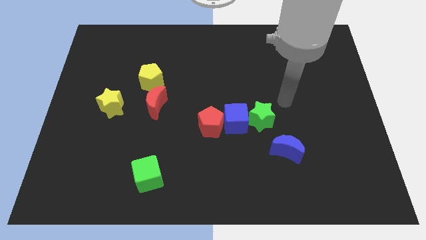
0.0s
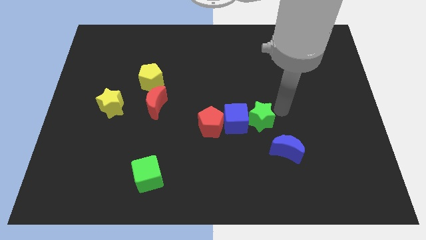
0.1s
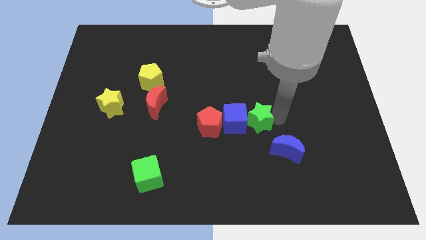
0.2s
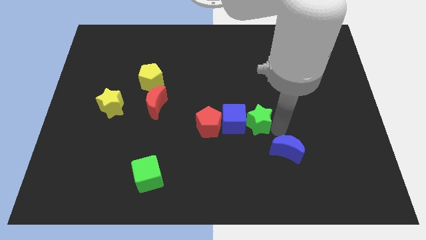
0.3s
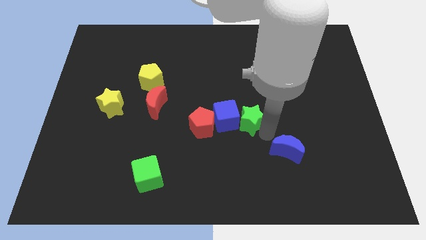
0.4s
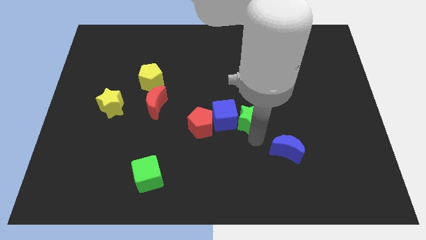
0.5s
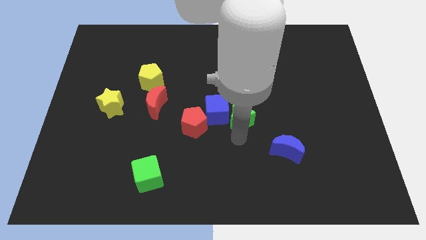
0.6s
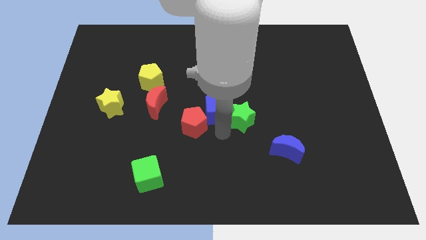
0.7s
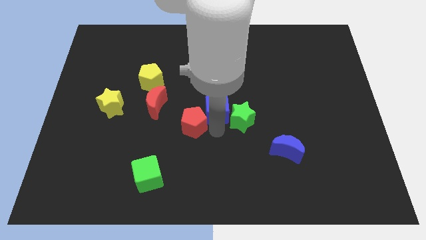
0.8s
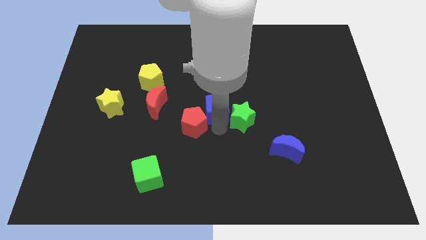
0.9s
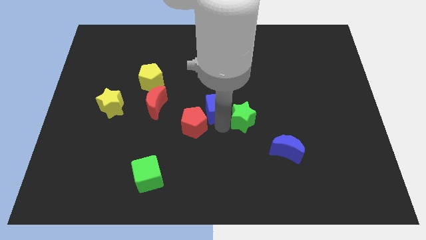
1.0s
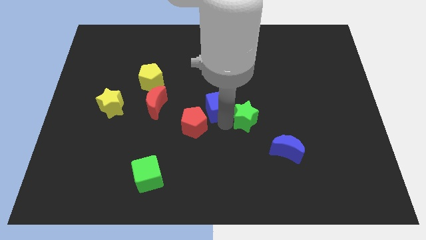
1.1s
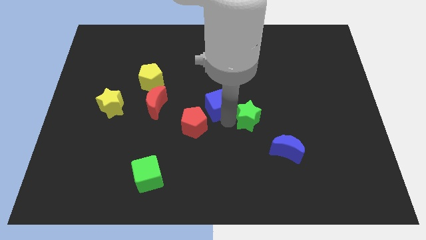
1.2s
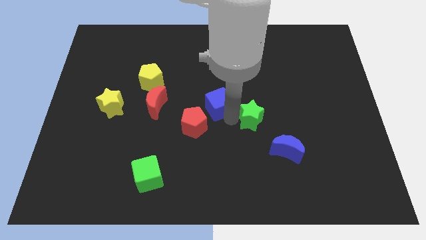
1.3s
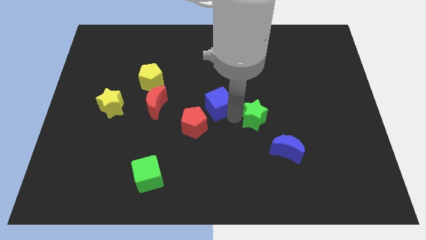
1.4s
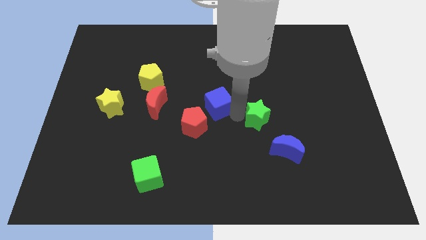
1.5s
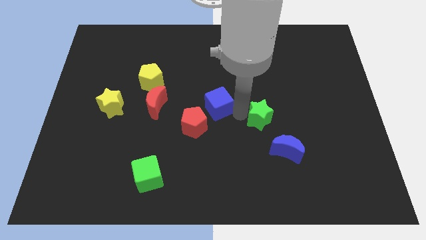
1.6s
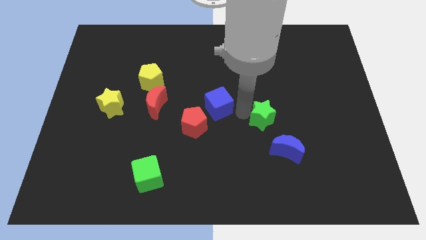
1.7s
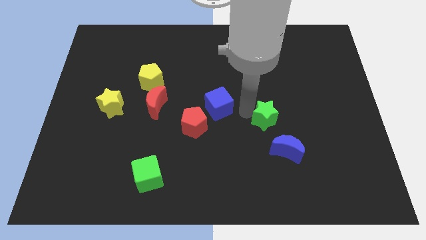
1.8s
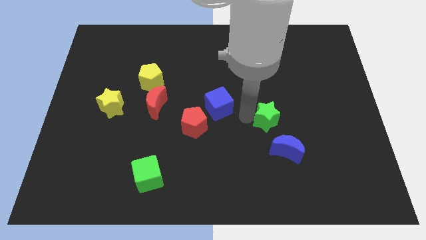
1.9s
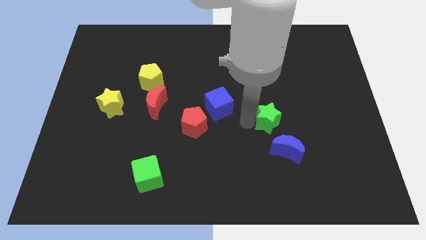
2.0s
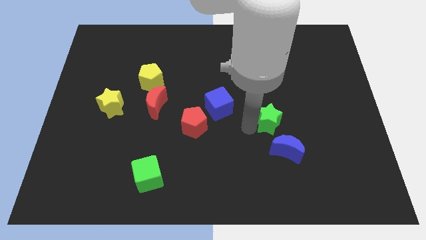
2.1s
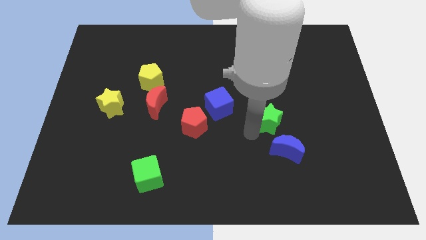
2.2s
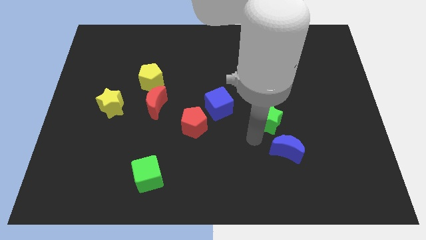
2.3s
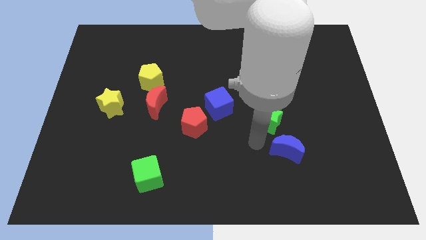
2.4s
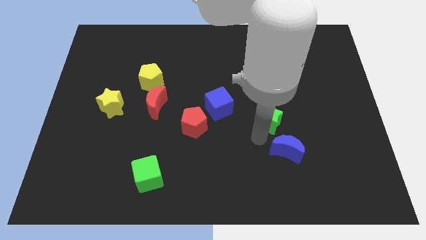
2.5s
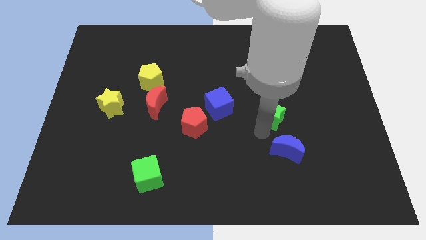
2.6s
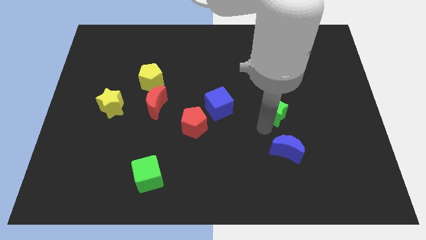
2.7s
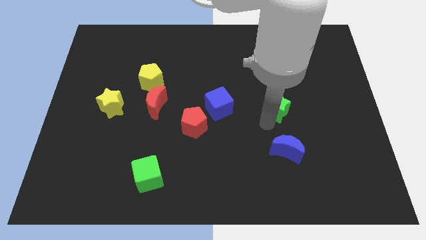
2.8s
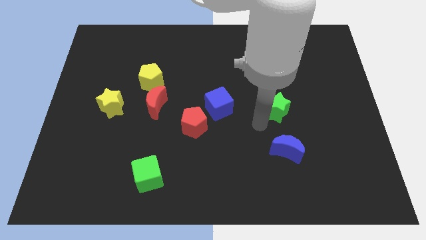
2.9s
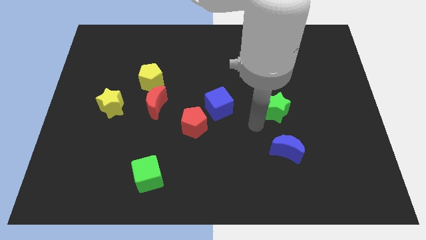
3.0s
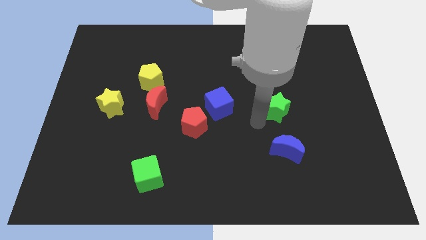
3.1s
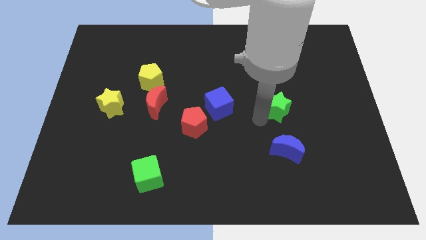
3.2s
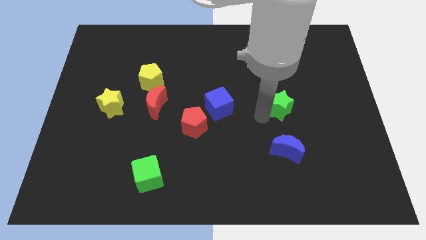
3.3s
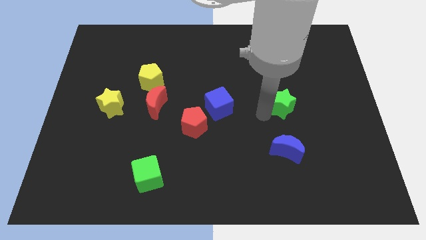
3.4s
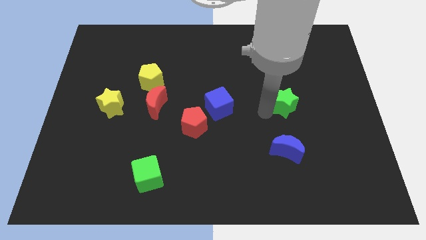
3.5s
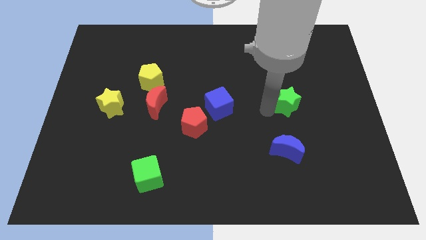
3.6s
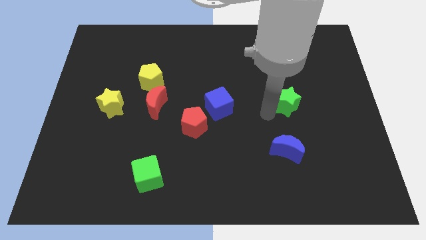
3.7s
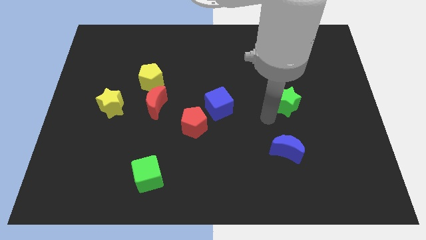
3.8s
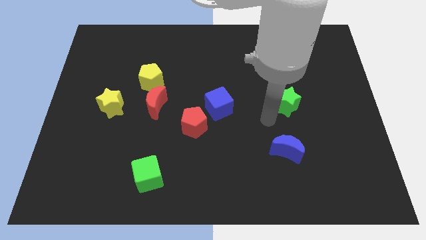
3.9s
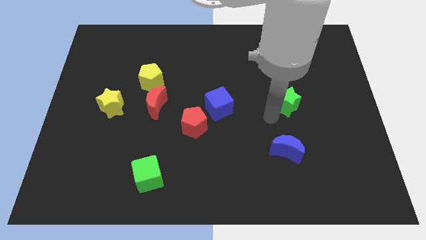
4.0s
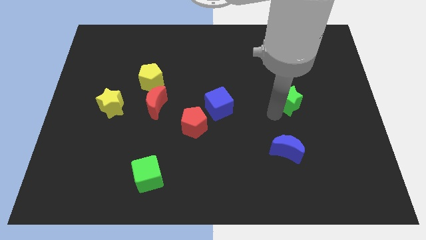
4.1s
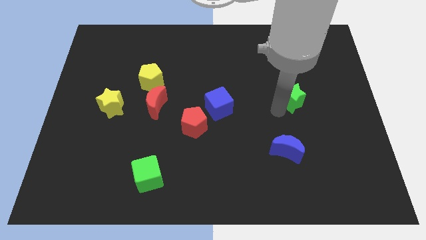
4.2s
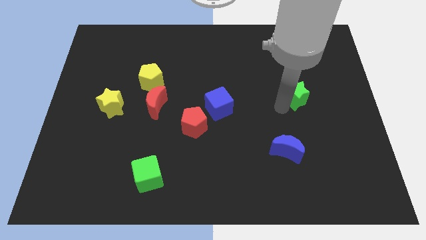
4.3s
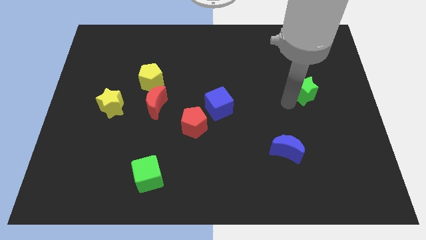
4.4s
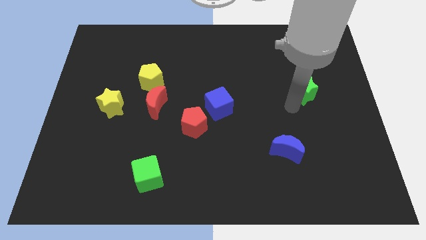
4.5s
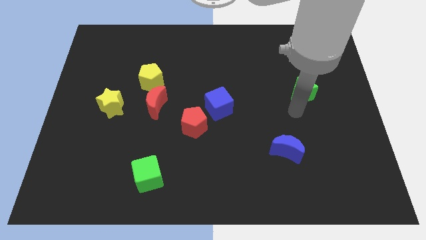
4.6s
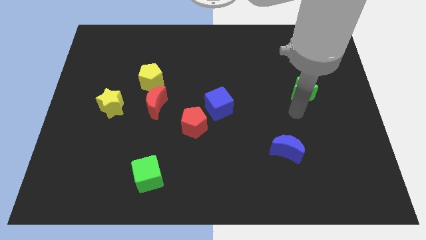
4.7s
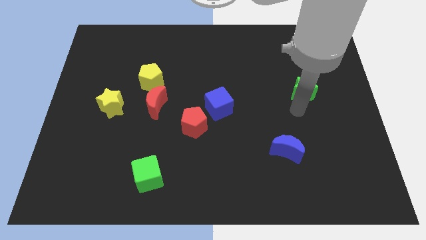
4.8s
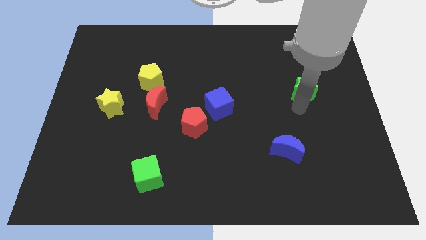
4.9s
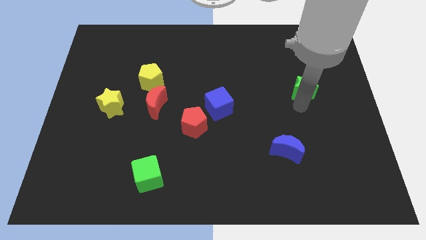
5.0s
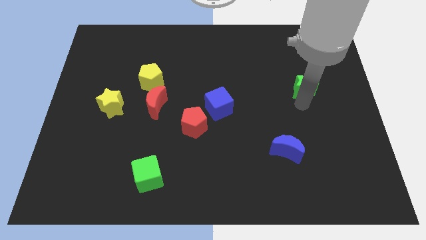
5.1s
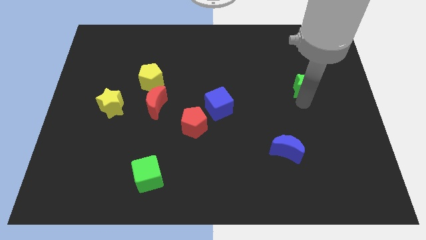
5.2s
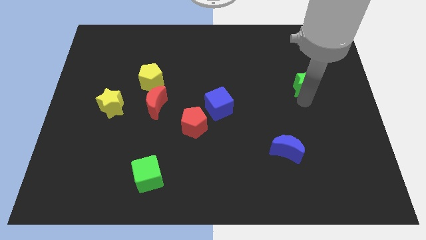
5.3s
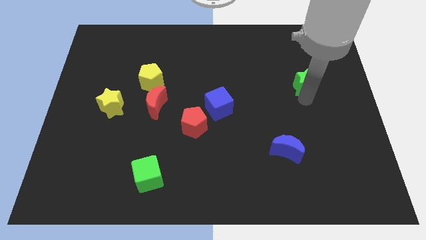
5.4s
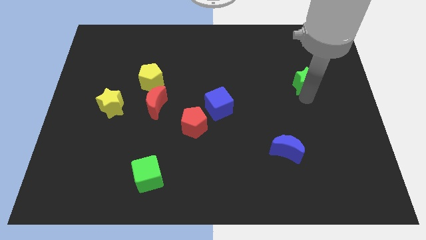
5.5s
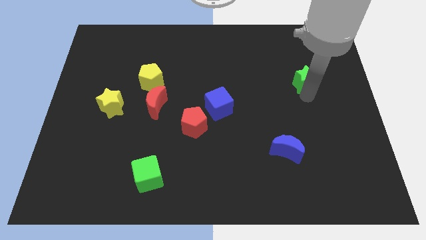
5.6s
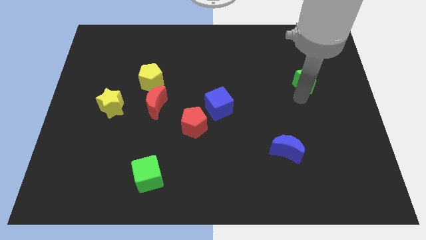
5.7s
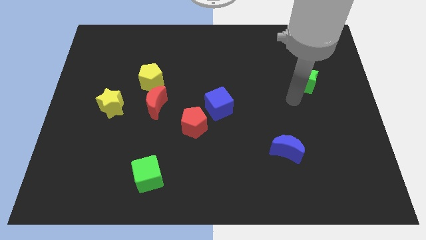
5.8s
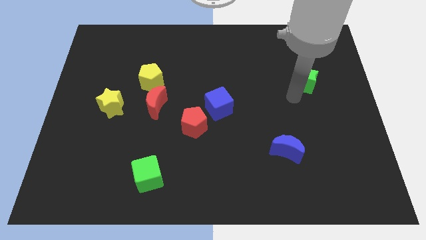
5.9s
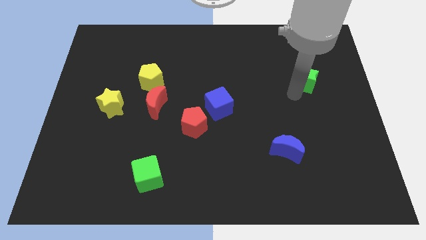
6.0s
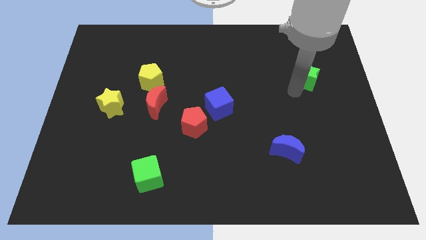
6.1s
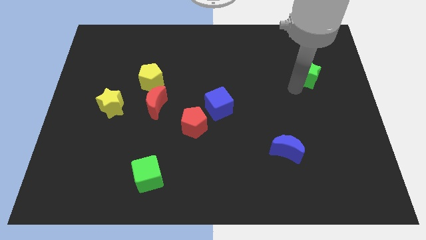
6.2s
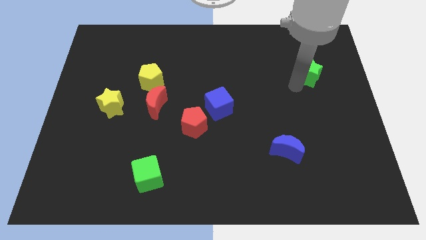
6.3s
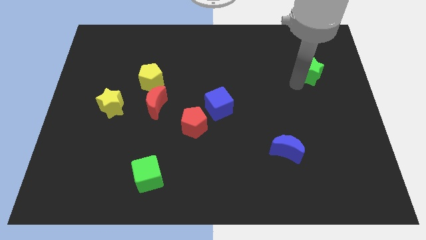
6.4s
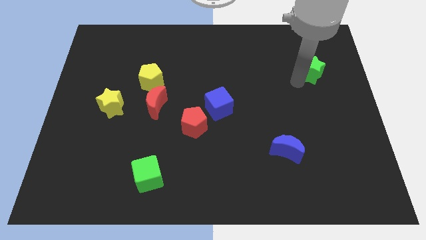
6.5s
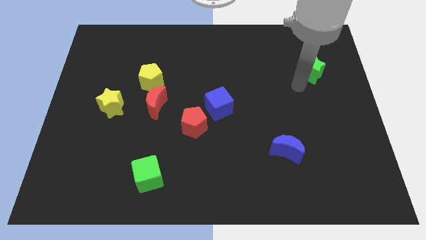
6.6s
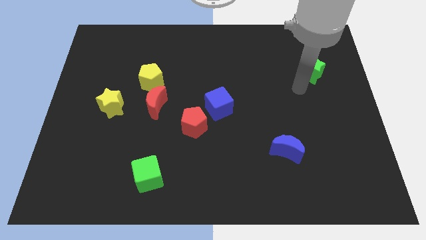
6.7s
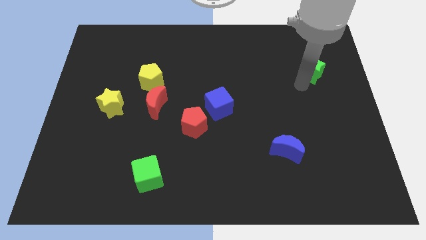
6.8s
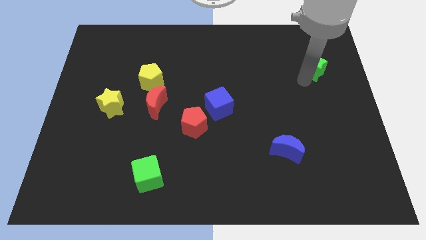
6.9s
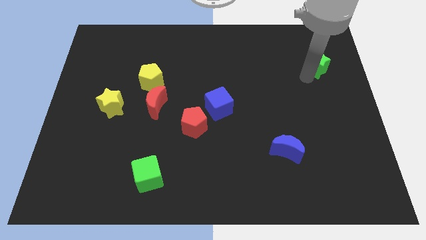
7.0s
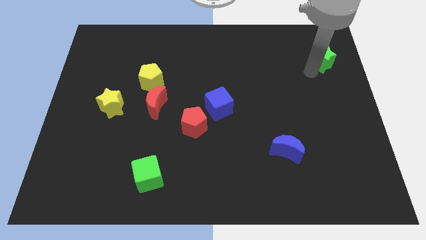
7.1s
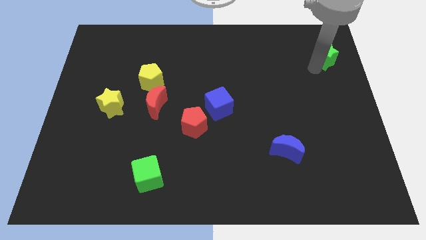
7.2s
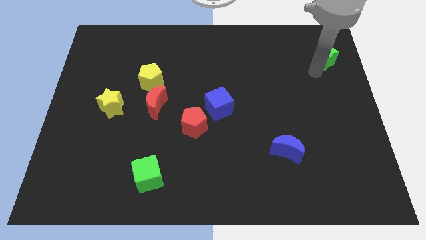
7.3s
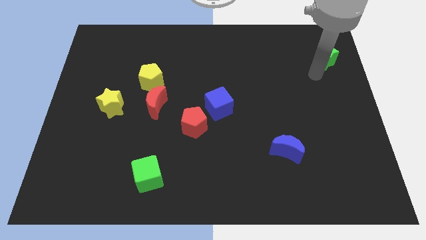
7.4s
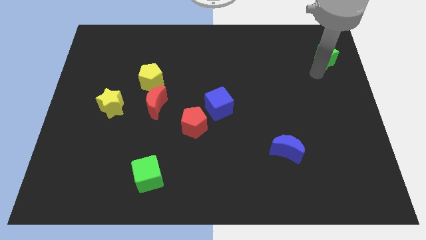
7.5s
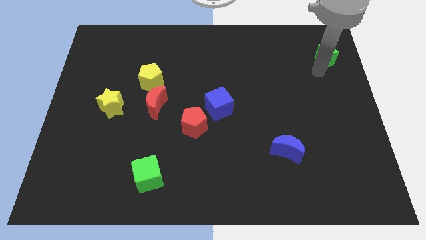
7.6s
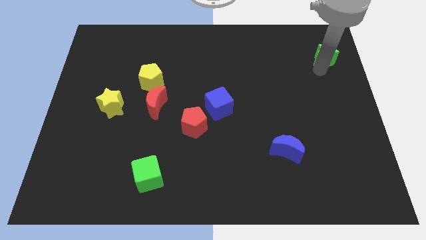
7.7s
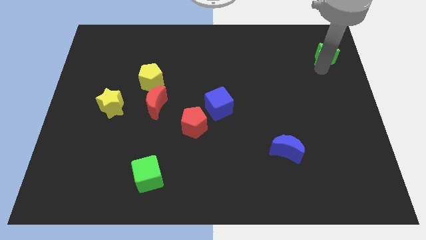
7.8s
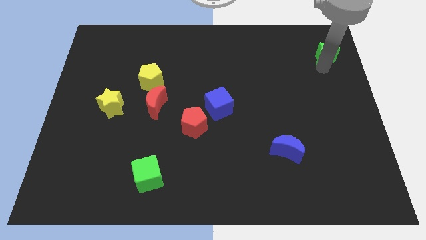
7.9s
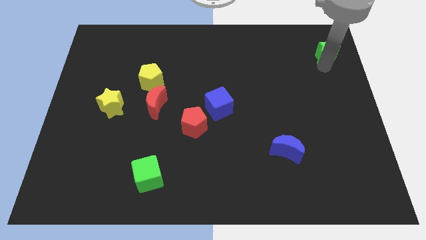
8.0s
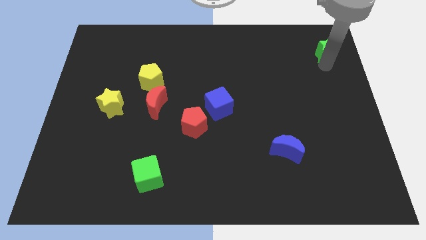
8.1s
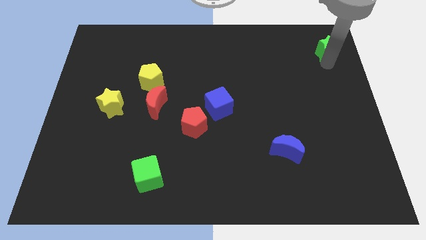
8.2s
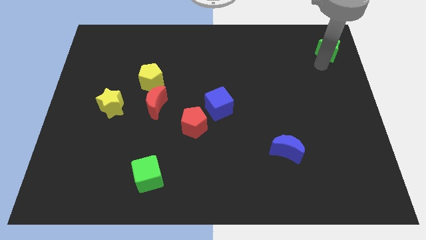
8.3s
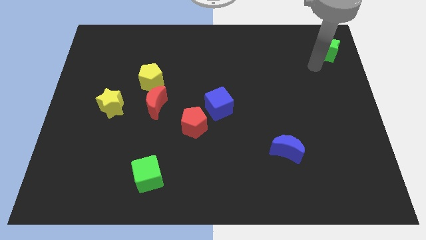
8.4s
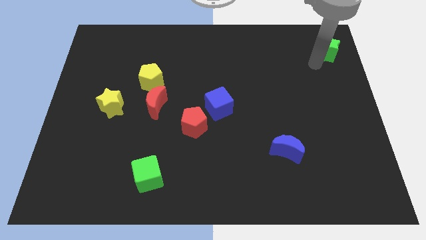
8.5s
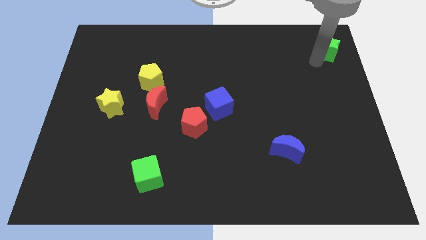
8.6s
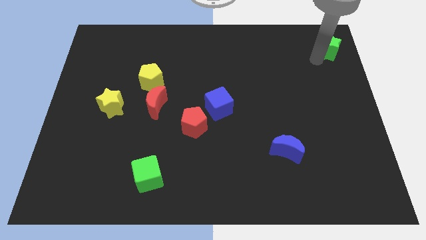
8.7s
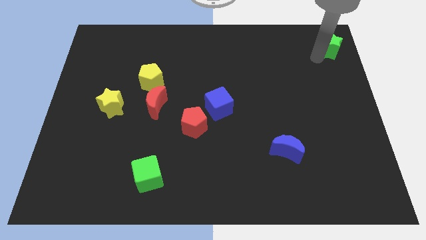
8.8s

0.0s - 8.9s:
push the green star to the upper right corner
